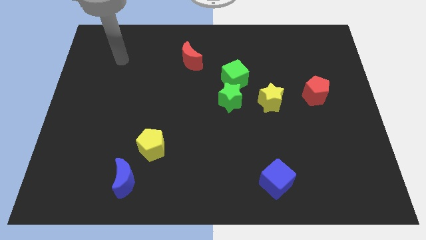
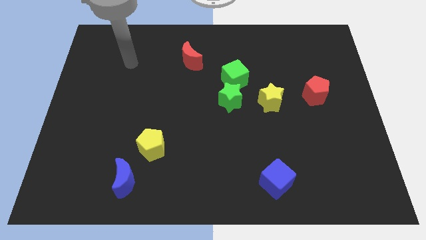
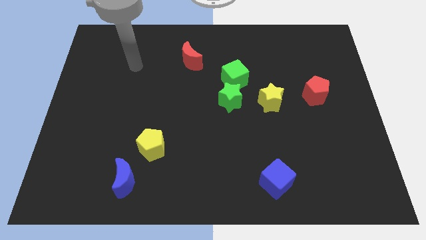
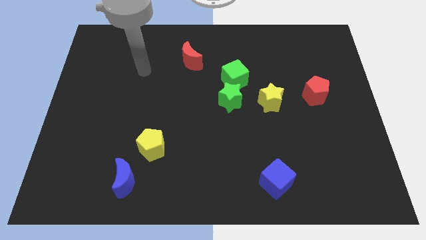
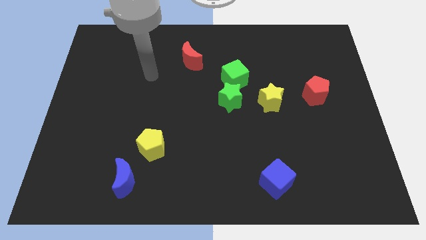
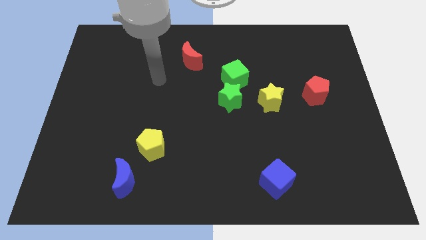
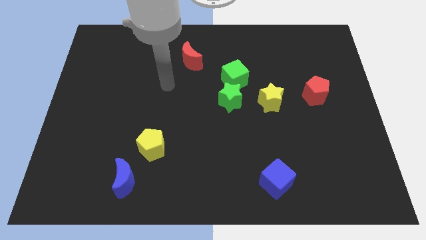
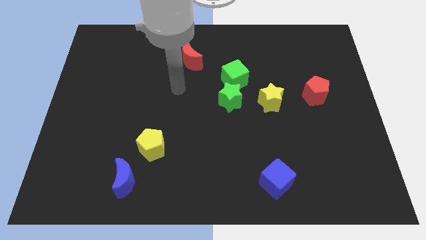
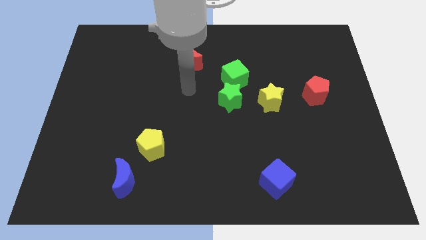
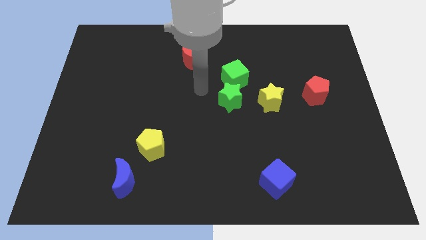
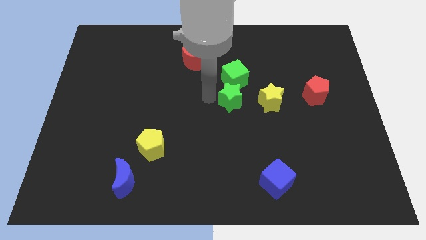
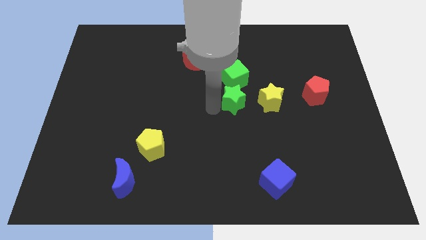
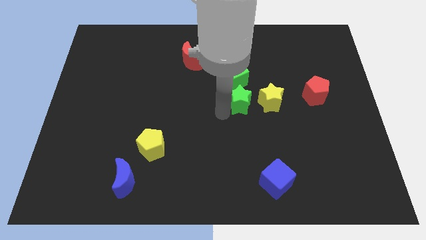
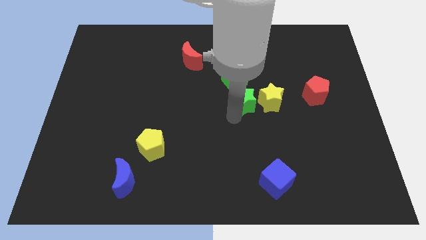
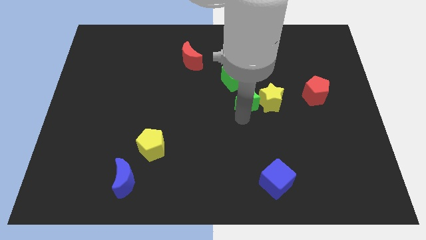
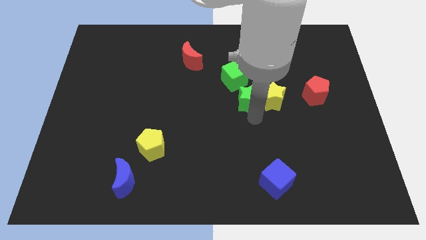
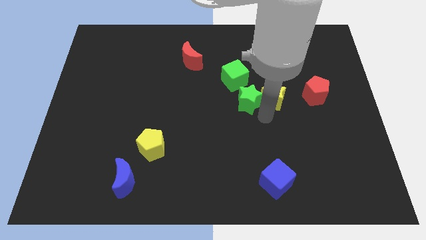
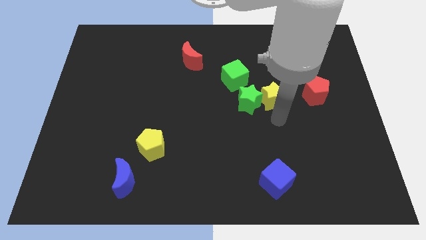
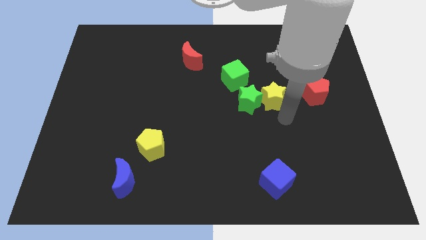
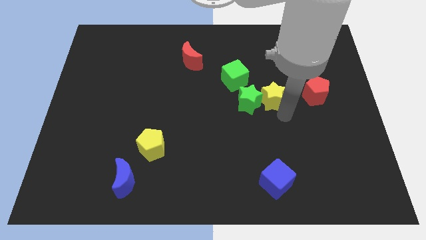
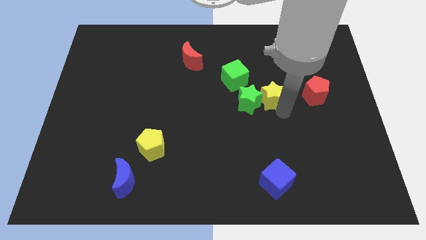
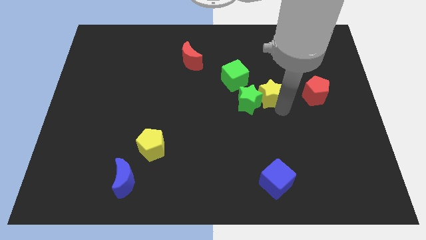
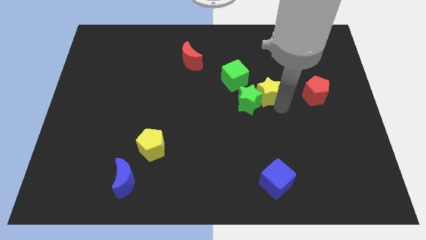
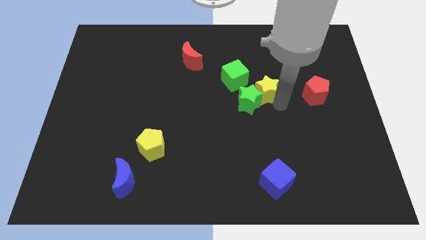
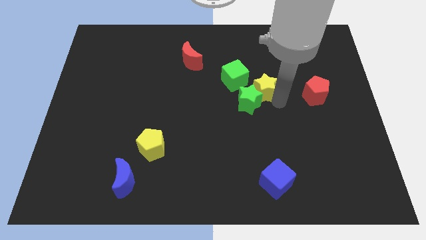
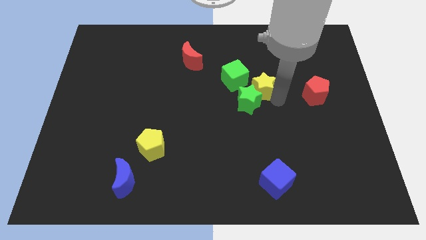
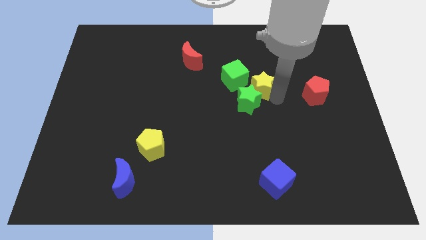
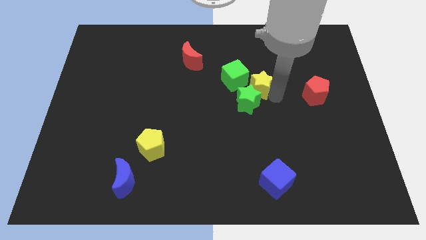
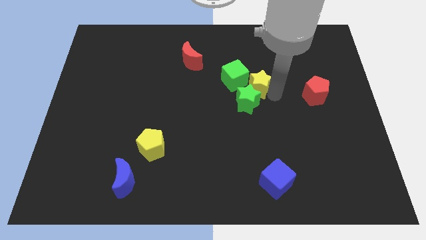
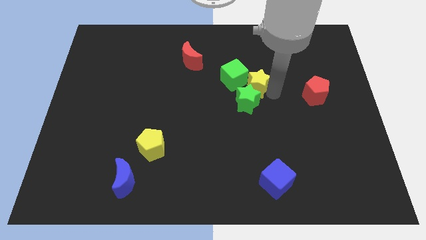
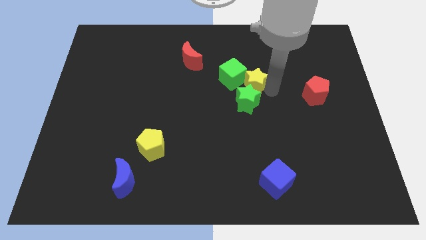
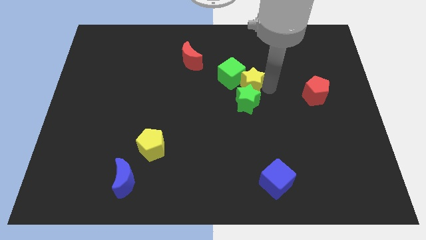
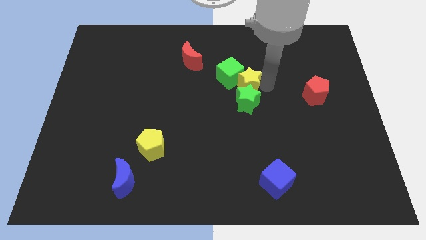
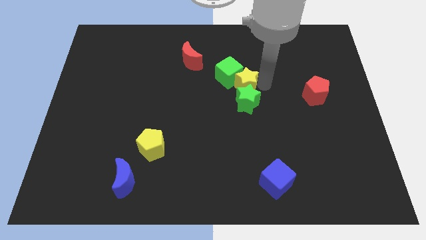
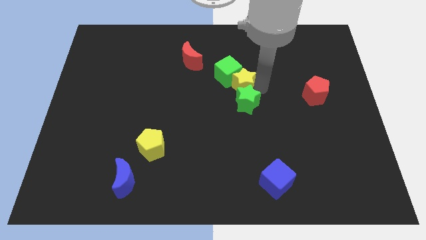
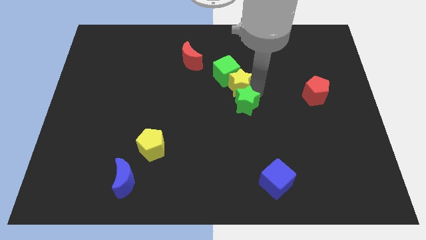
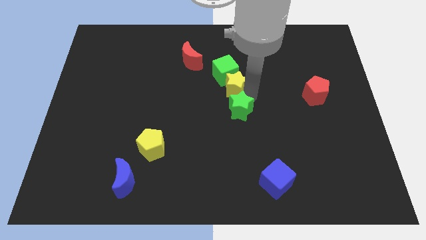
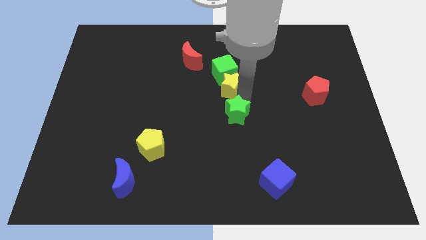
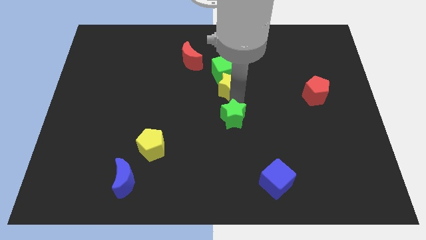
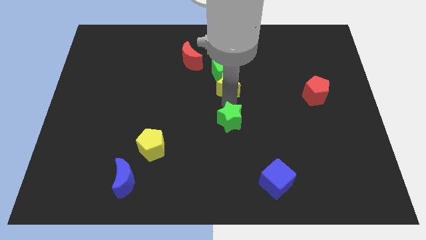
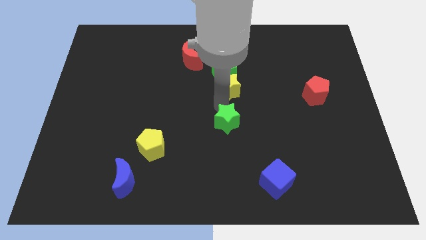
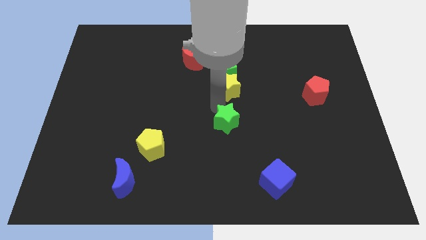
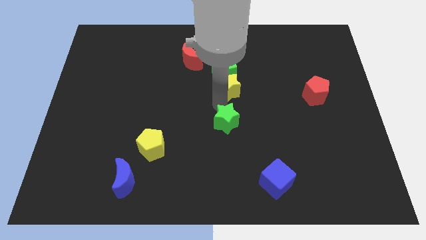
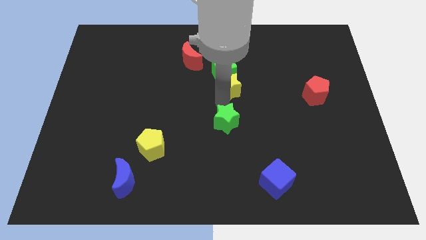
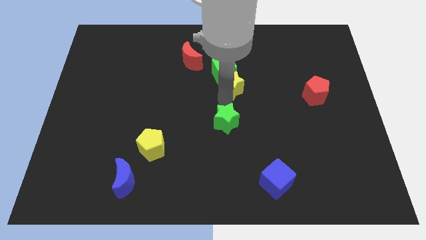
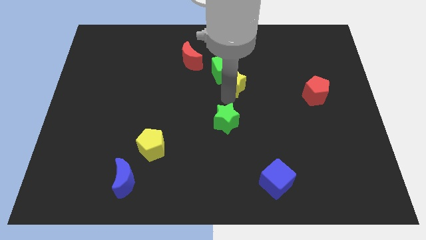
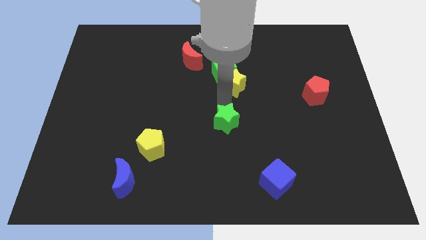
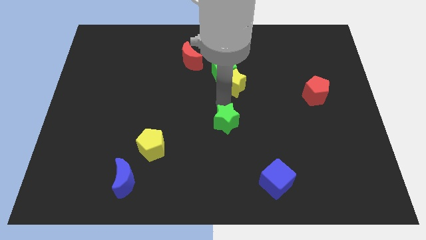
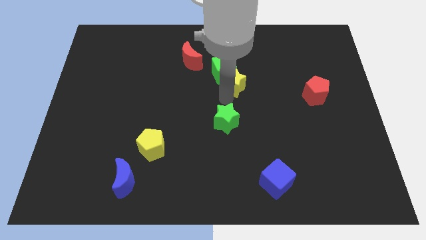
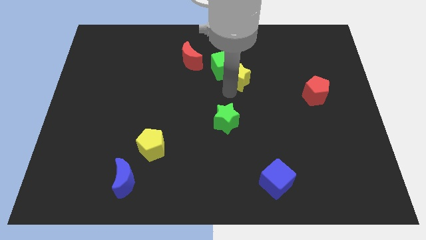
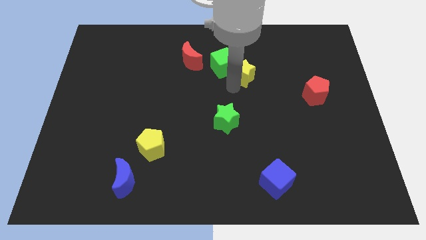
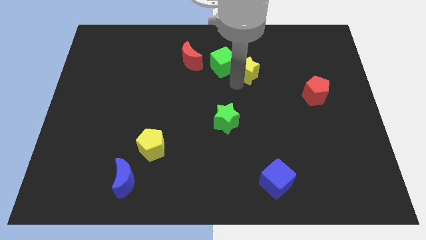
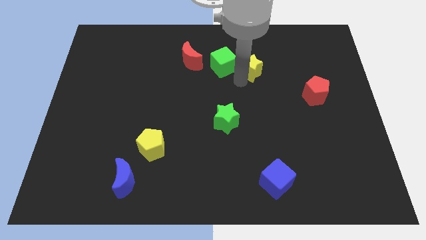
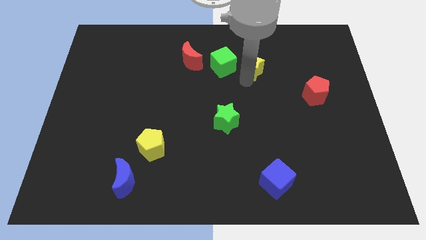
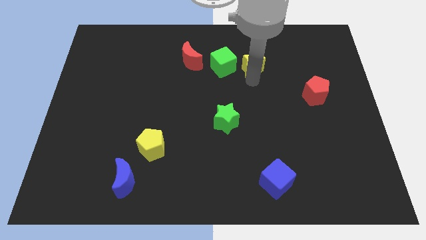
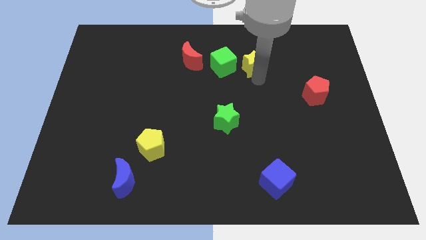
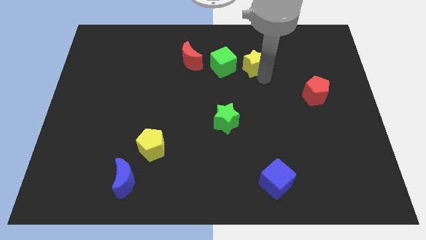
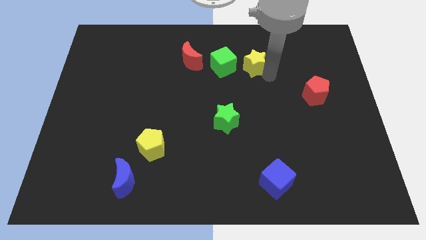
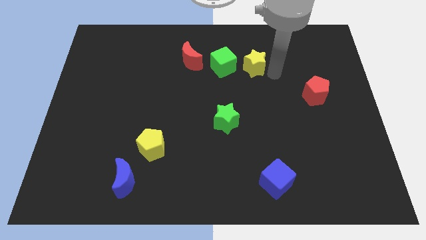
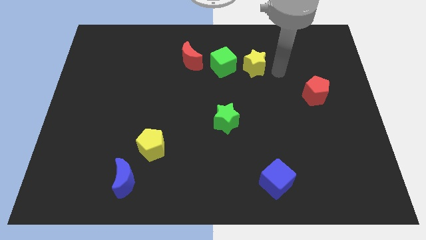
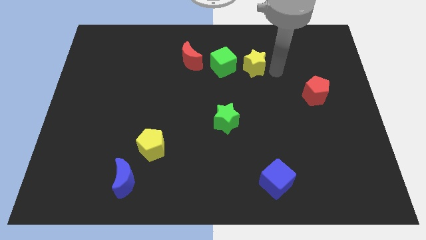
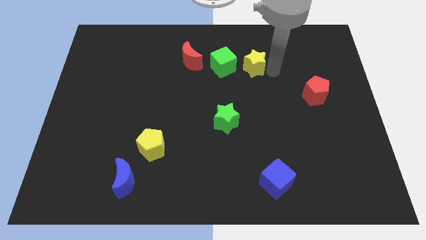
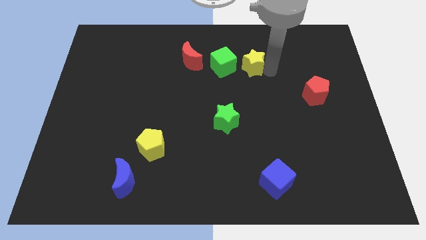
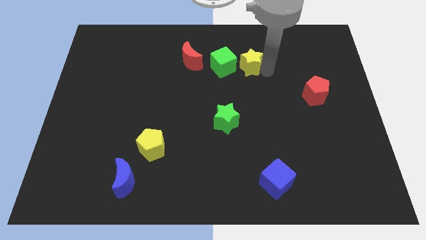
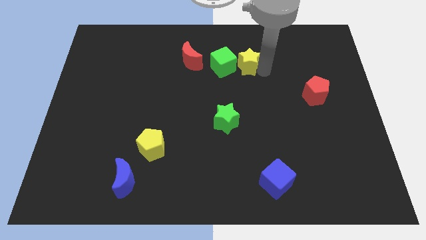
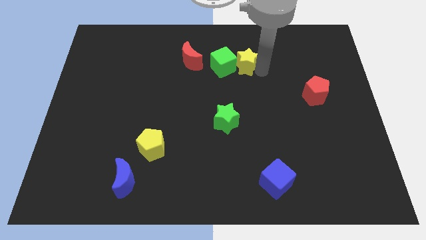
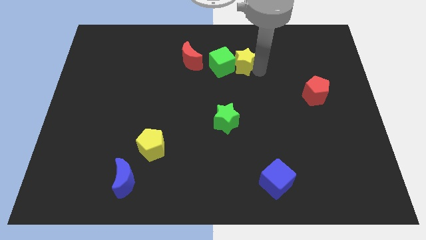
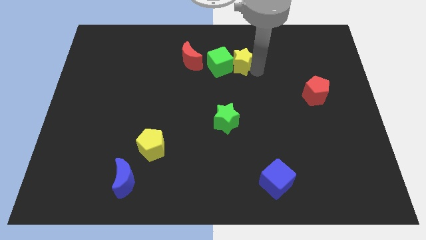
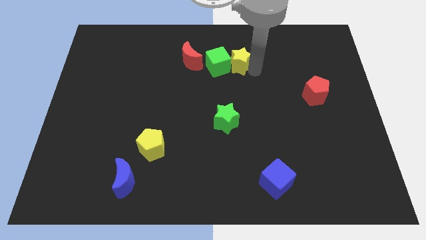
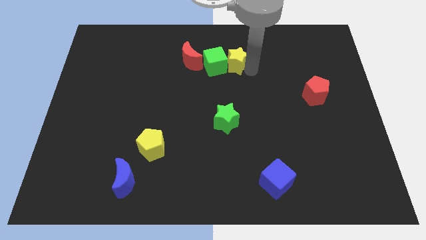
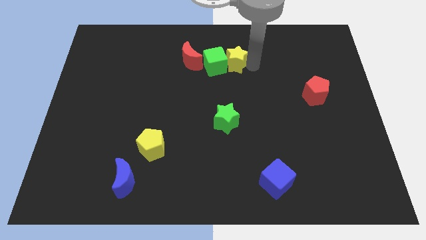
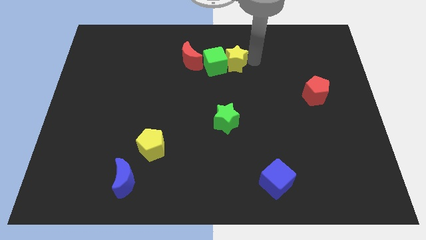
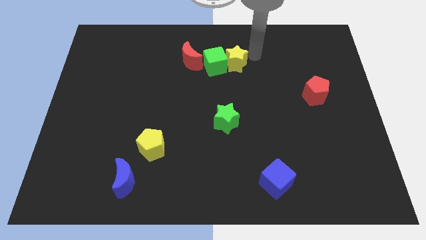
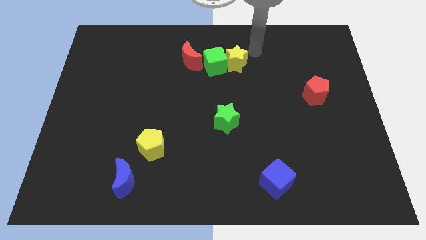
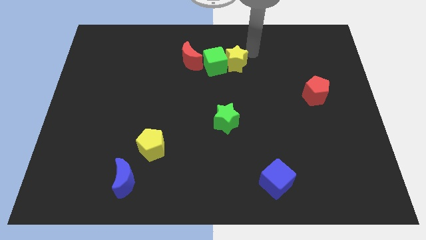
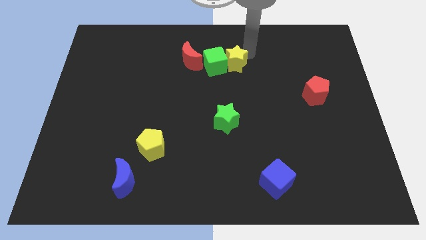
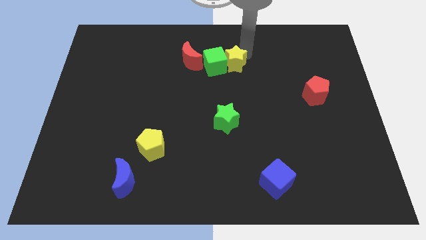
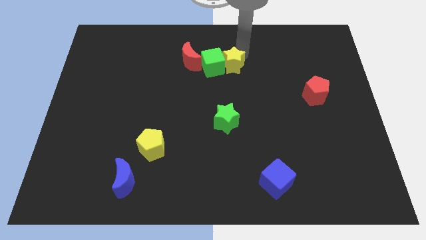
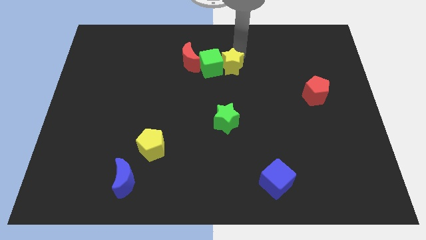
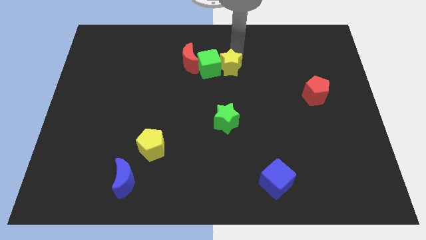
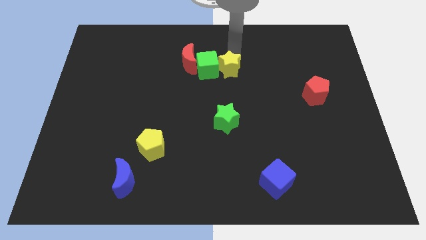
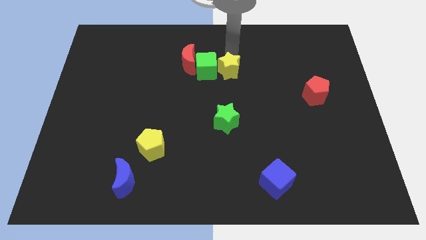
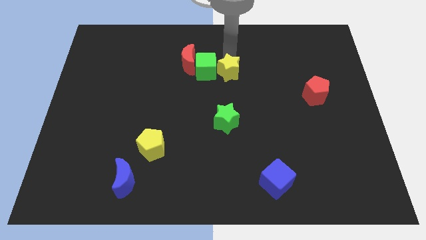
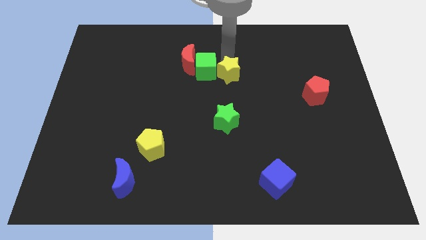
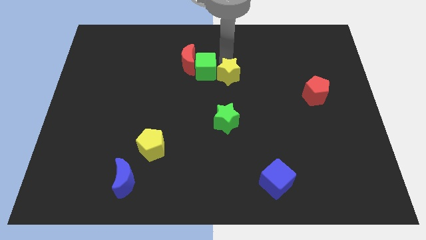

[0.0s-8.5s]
put the yellow star to the bottom right of the red moon
